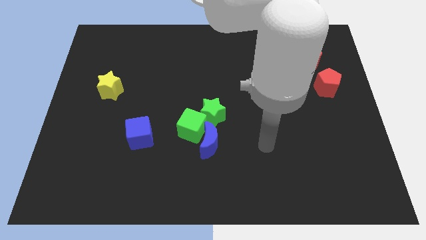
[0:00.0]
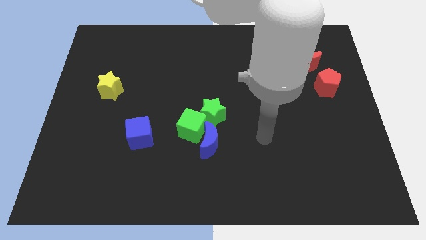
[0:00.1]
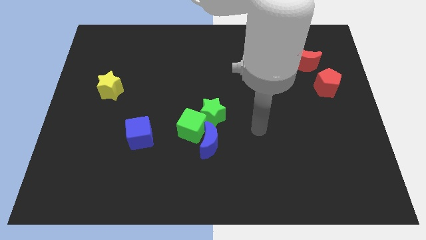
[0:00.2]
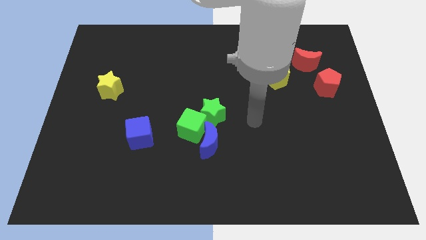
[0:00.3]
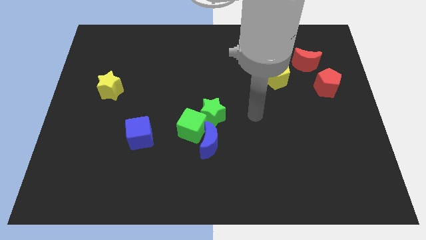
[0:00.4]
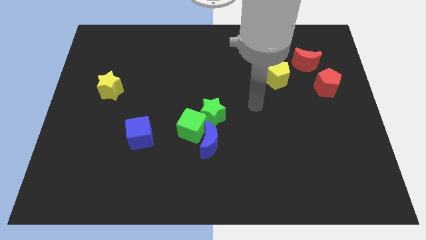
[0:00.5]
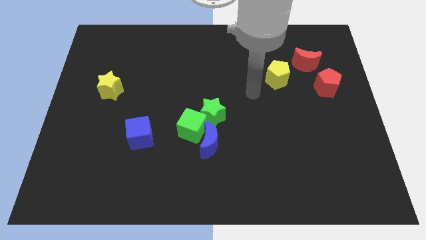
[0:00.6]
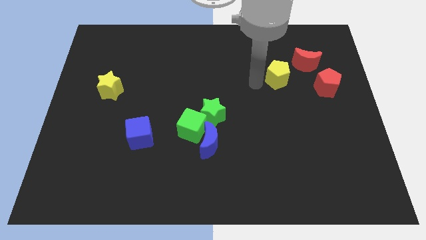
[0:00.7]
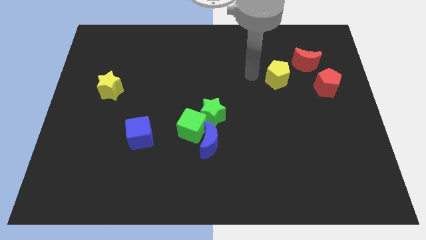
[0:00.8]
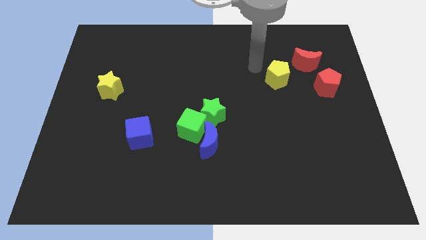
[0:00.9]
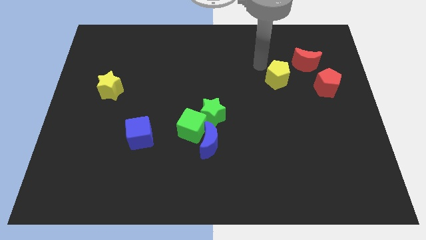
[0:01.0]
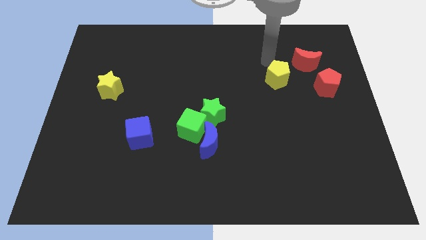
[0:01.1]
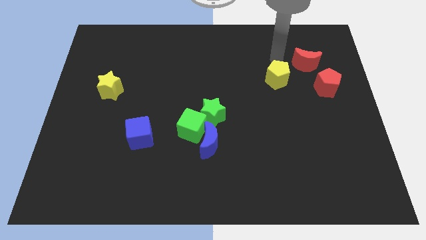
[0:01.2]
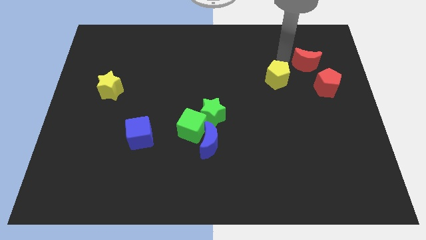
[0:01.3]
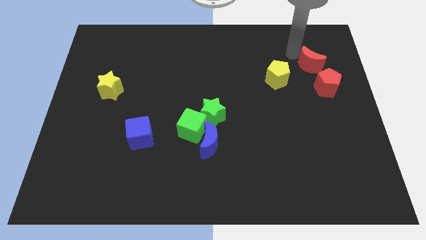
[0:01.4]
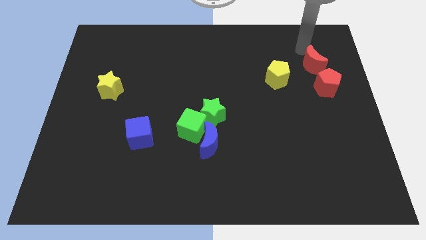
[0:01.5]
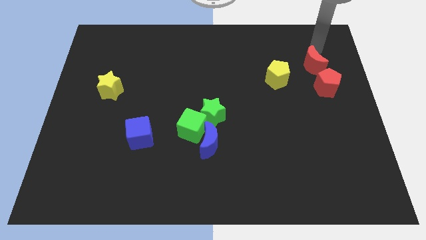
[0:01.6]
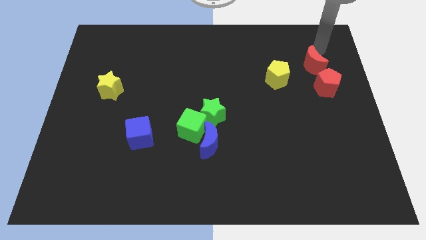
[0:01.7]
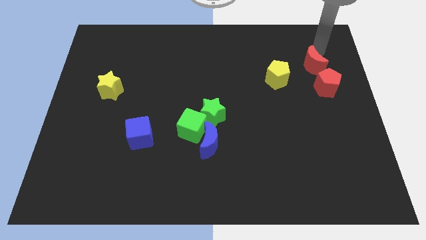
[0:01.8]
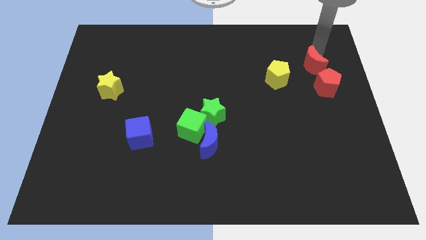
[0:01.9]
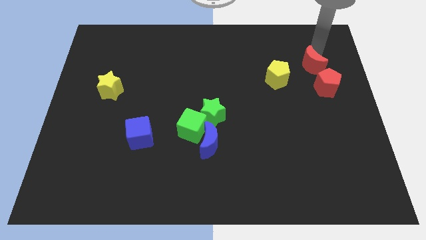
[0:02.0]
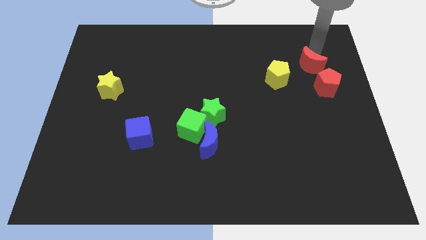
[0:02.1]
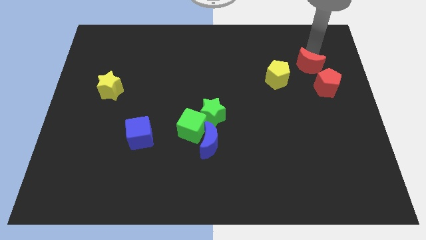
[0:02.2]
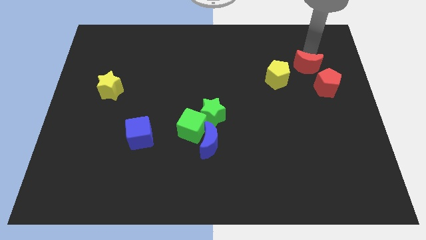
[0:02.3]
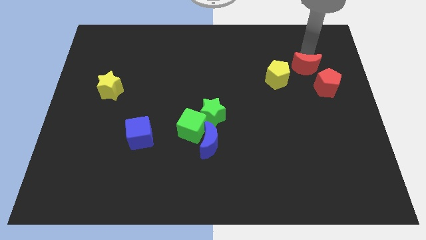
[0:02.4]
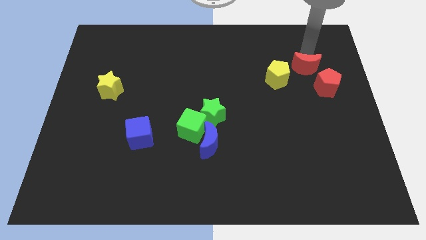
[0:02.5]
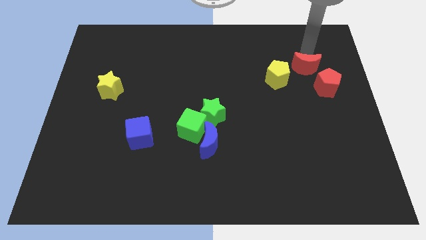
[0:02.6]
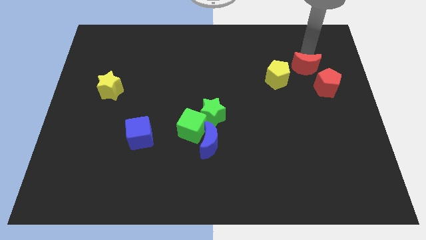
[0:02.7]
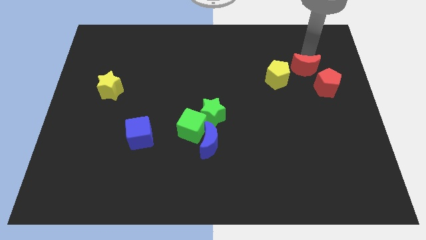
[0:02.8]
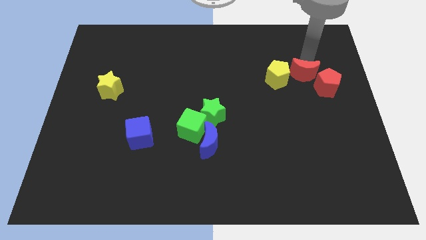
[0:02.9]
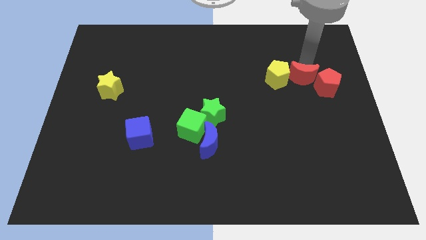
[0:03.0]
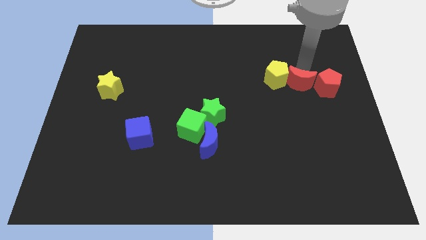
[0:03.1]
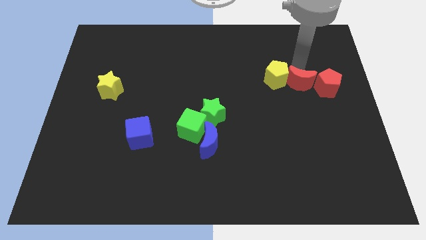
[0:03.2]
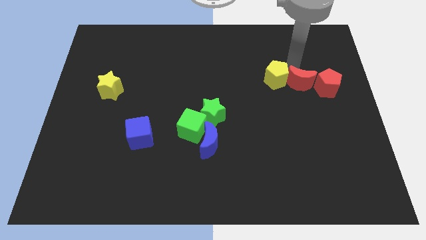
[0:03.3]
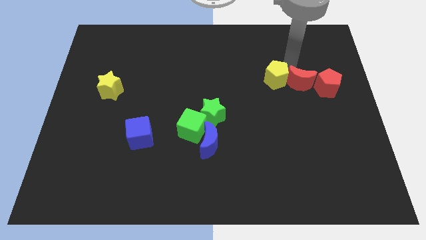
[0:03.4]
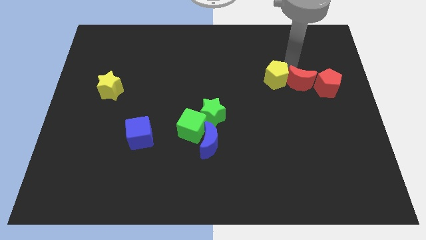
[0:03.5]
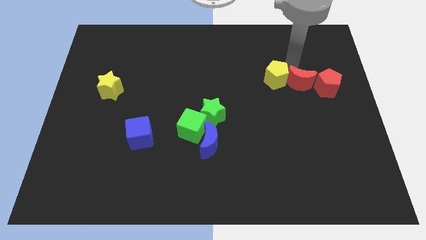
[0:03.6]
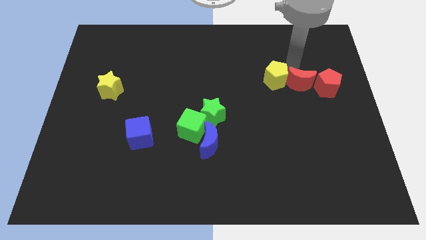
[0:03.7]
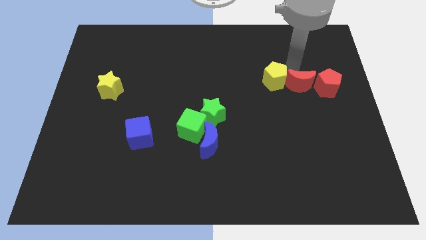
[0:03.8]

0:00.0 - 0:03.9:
slightly move the red moon down

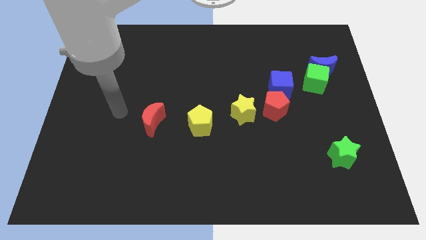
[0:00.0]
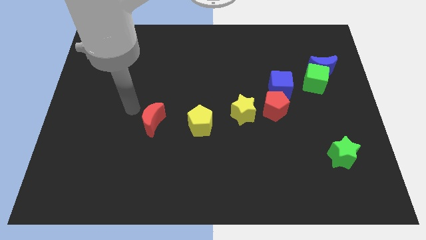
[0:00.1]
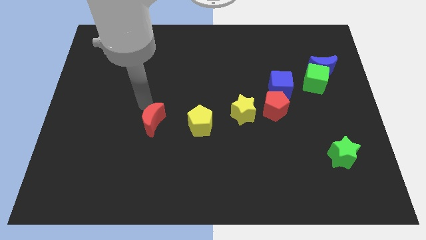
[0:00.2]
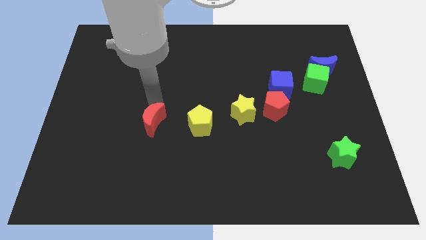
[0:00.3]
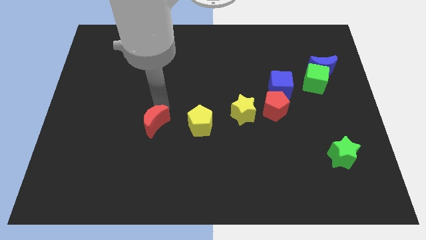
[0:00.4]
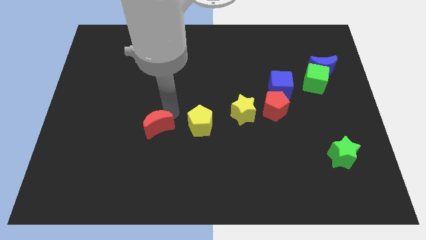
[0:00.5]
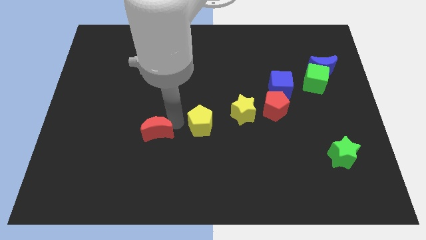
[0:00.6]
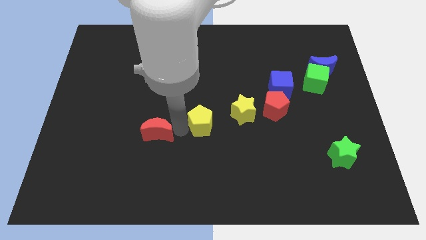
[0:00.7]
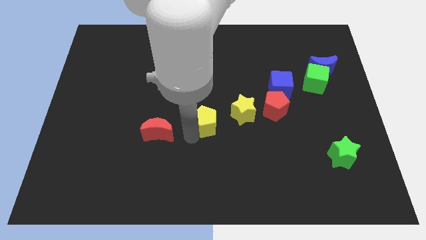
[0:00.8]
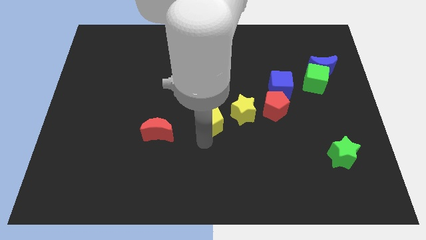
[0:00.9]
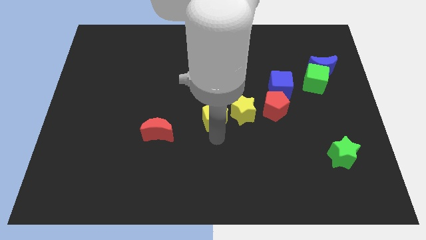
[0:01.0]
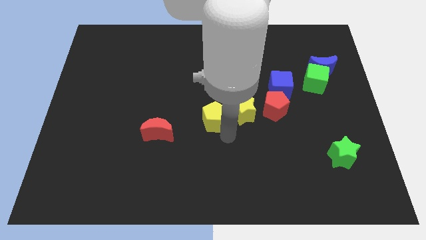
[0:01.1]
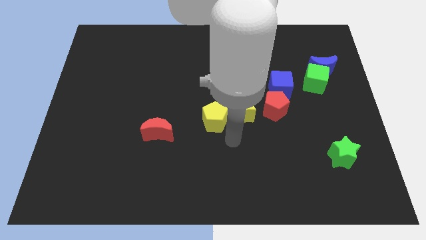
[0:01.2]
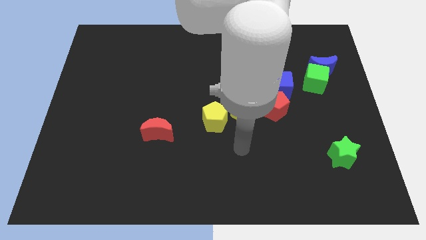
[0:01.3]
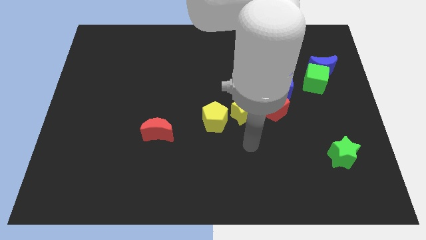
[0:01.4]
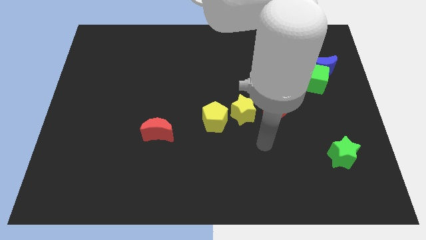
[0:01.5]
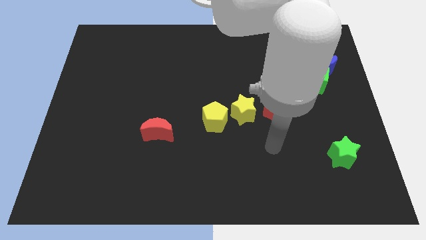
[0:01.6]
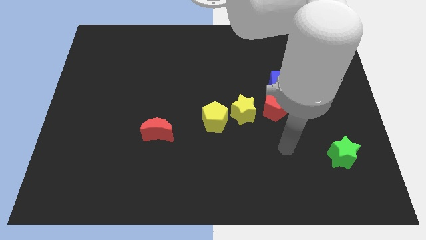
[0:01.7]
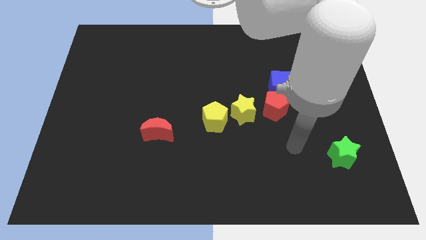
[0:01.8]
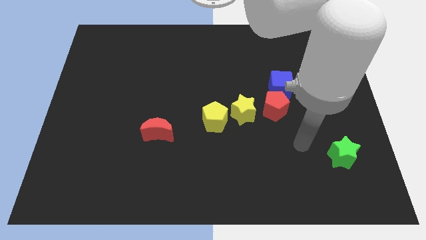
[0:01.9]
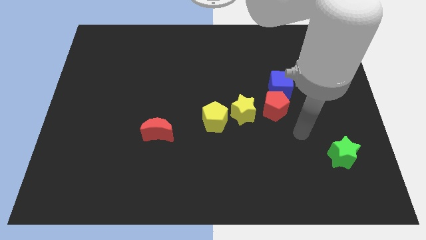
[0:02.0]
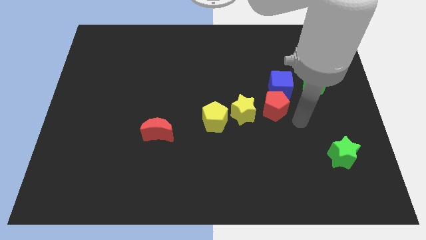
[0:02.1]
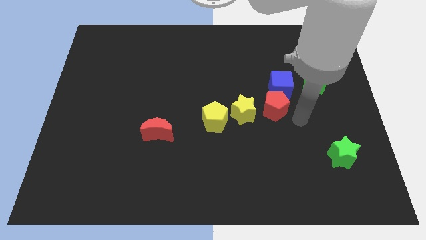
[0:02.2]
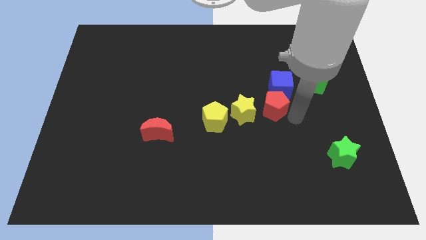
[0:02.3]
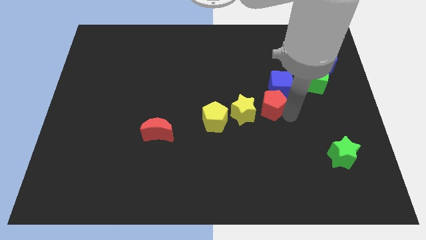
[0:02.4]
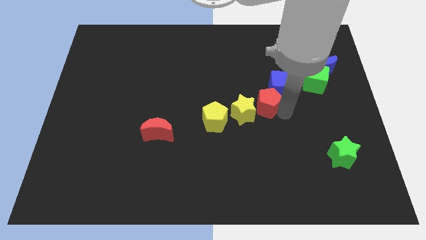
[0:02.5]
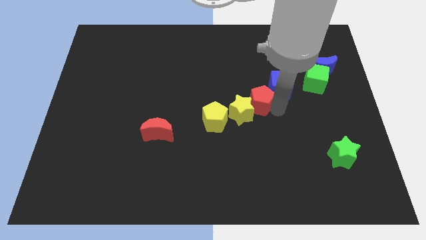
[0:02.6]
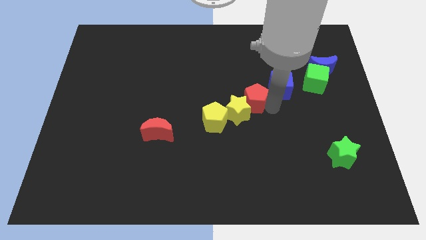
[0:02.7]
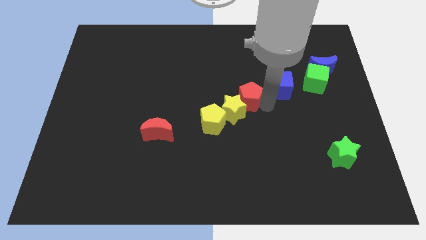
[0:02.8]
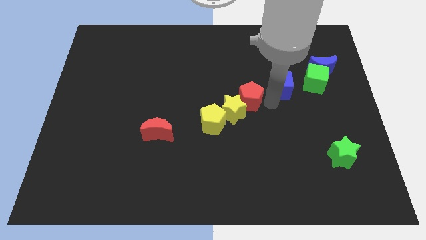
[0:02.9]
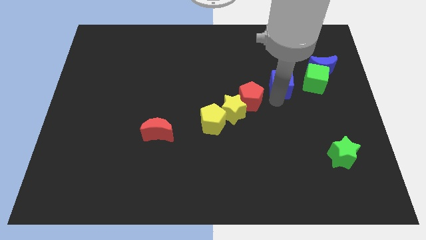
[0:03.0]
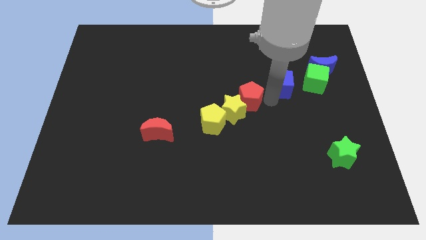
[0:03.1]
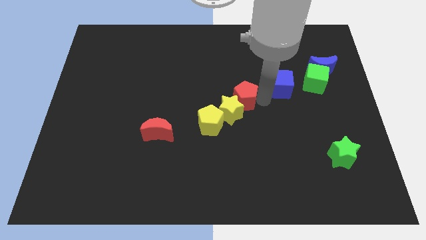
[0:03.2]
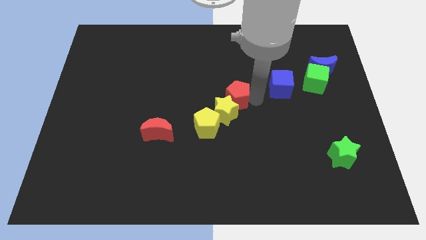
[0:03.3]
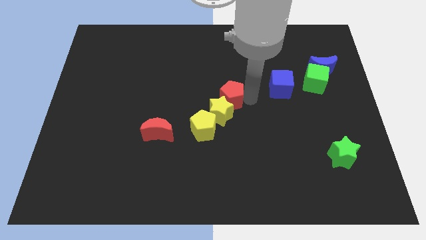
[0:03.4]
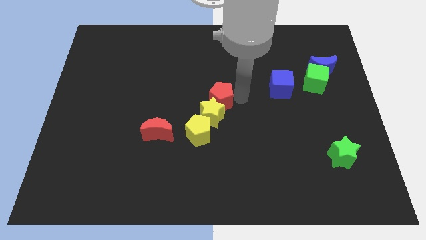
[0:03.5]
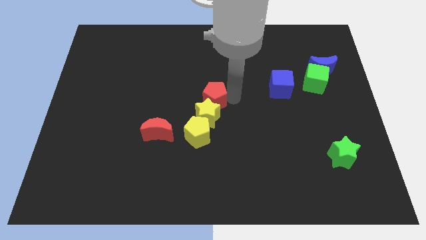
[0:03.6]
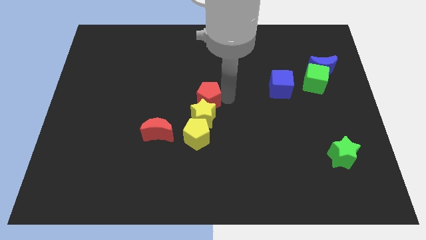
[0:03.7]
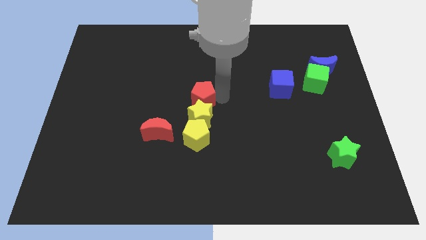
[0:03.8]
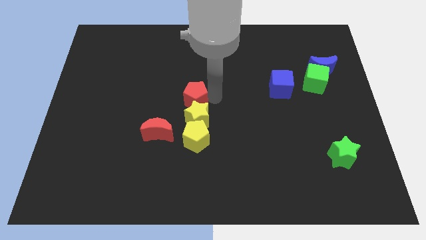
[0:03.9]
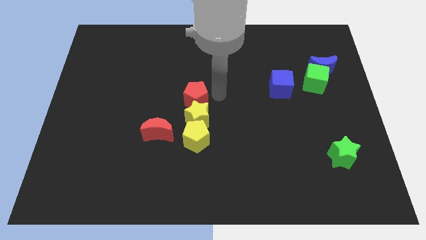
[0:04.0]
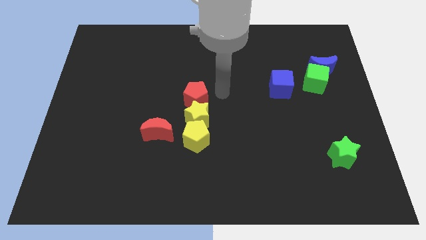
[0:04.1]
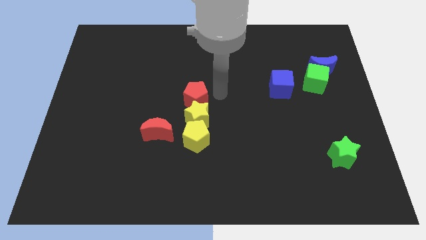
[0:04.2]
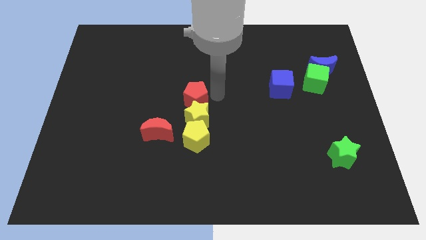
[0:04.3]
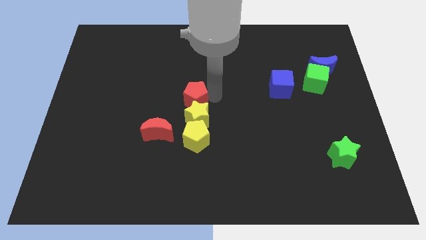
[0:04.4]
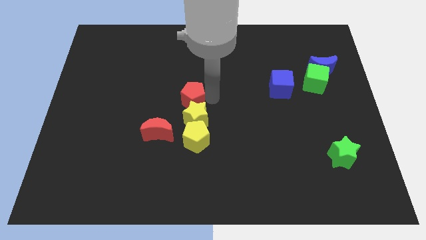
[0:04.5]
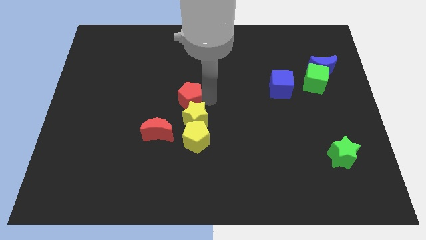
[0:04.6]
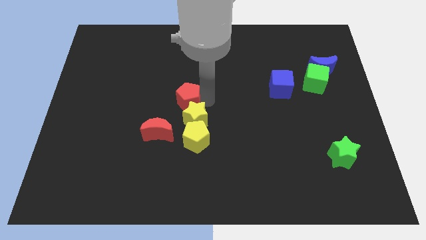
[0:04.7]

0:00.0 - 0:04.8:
push the red pentagon left
